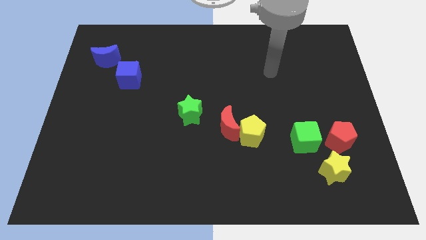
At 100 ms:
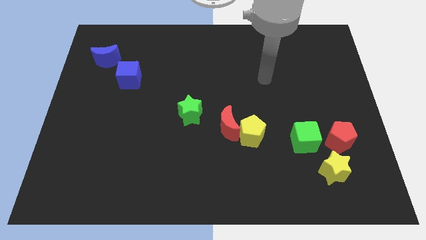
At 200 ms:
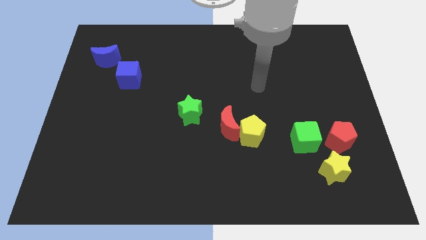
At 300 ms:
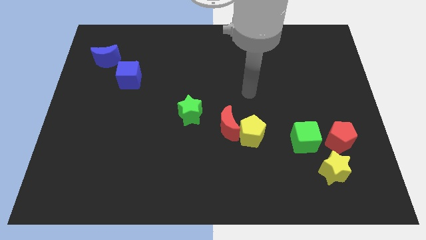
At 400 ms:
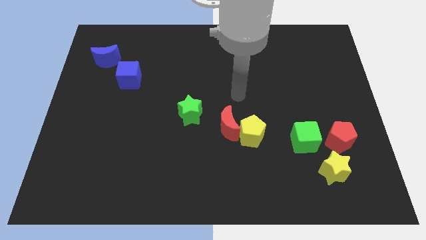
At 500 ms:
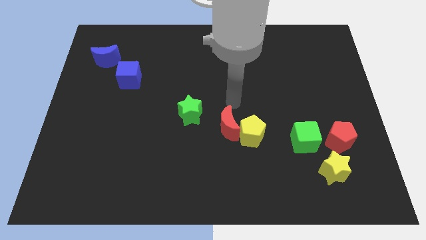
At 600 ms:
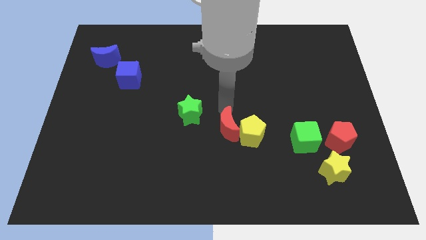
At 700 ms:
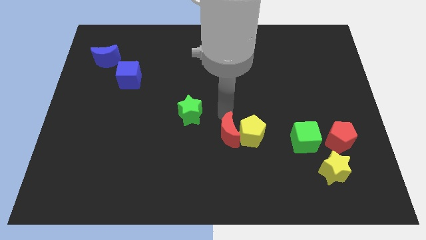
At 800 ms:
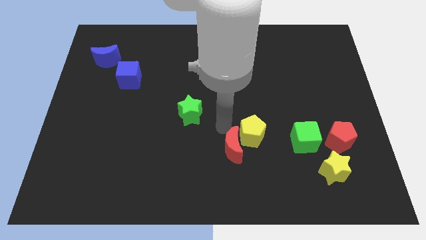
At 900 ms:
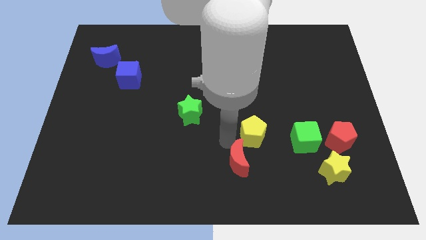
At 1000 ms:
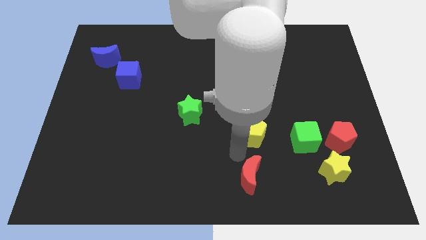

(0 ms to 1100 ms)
pull the yellow pentagon apart from the red moon

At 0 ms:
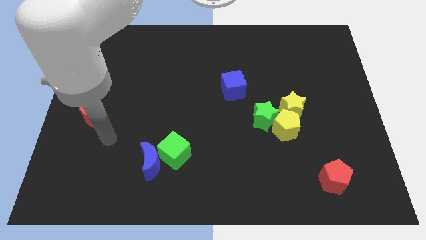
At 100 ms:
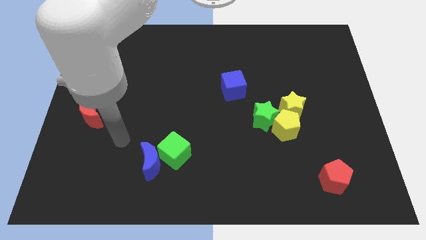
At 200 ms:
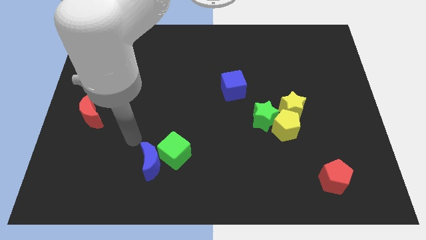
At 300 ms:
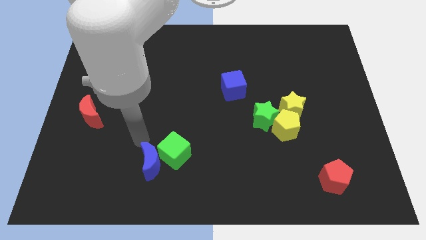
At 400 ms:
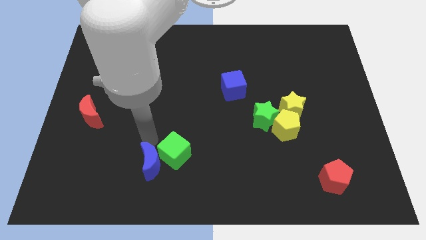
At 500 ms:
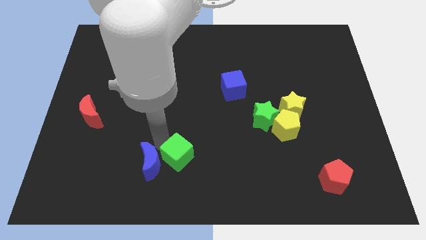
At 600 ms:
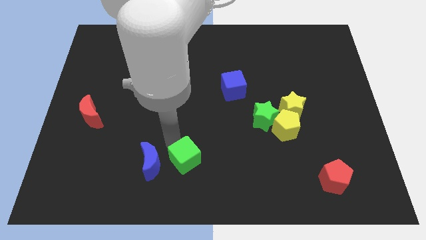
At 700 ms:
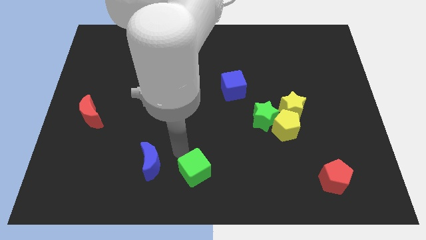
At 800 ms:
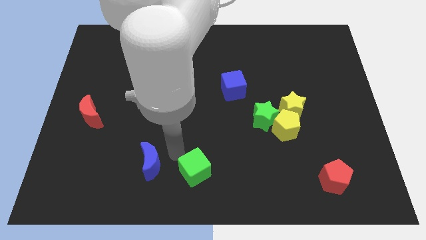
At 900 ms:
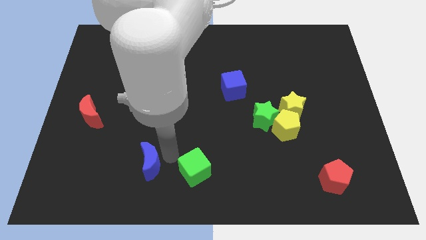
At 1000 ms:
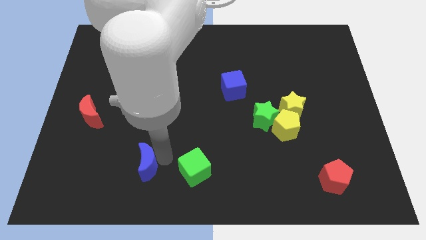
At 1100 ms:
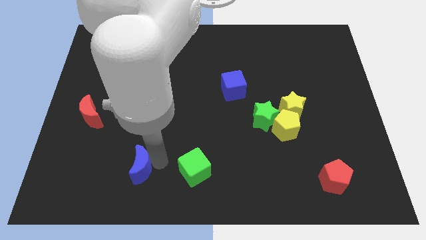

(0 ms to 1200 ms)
move the blue moon away from the green cube

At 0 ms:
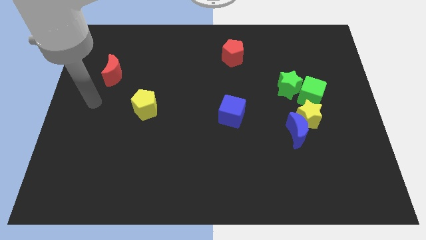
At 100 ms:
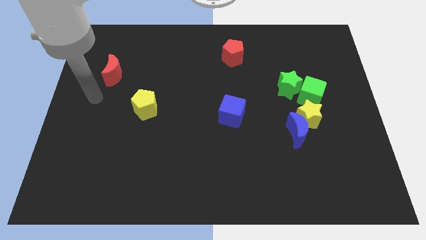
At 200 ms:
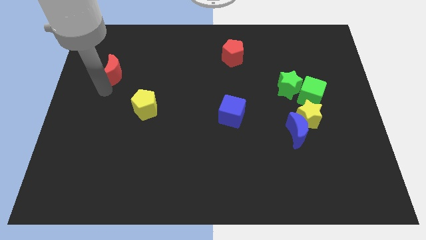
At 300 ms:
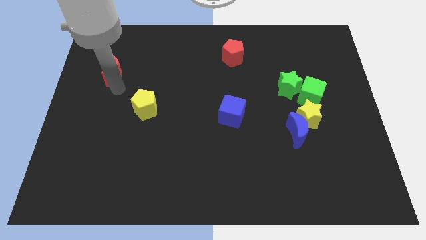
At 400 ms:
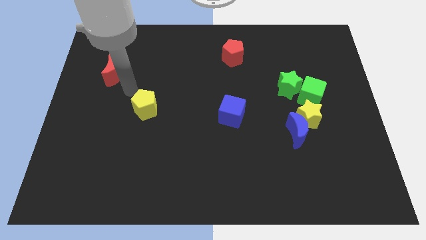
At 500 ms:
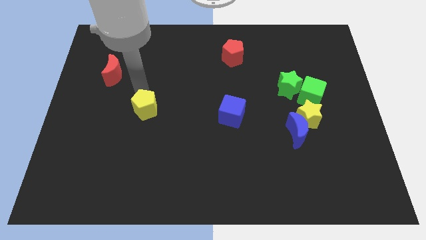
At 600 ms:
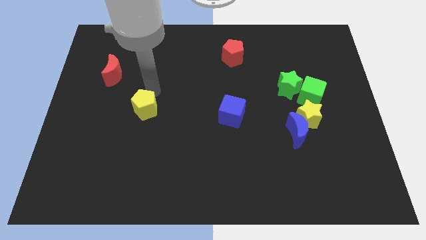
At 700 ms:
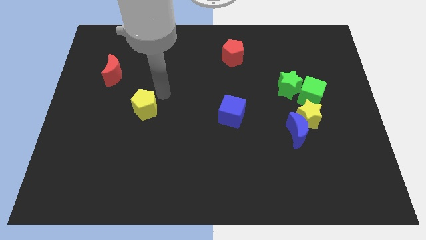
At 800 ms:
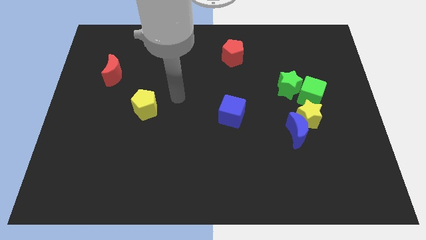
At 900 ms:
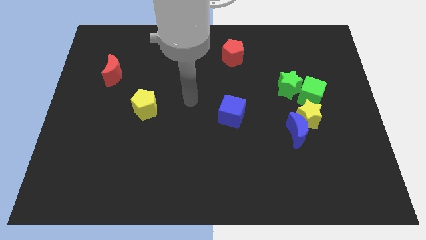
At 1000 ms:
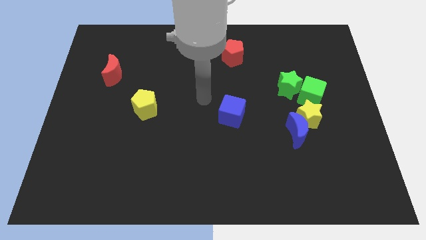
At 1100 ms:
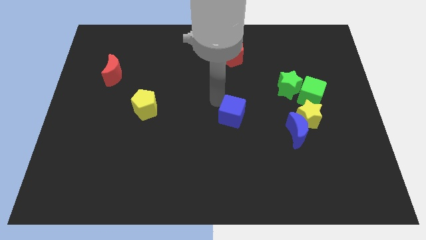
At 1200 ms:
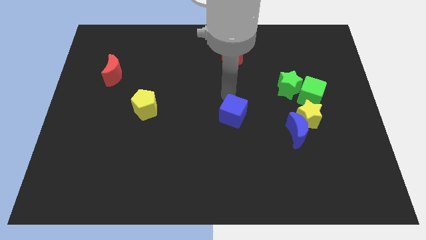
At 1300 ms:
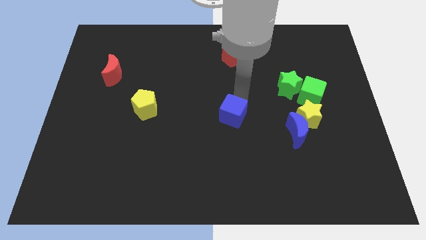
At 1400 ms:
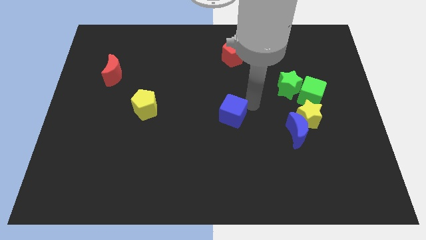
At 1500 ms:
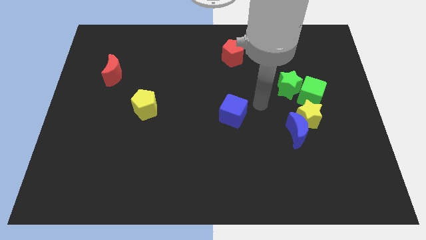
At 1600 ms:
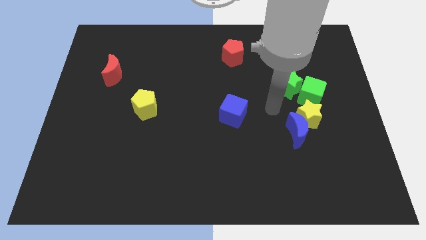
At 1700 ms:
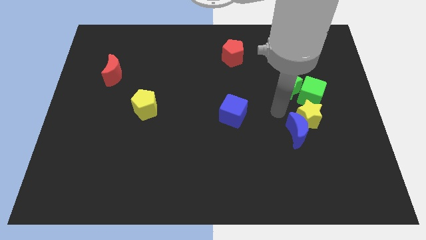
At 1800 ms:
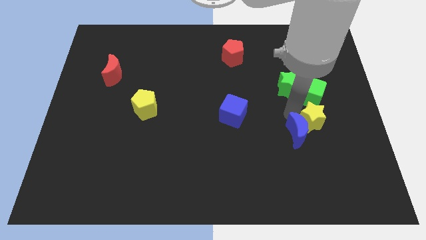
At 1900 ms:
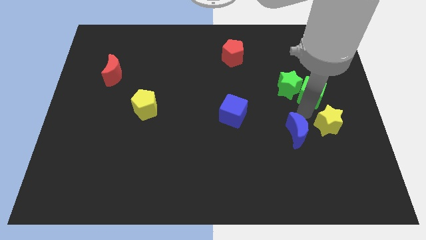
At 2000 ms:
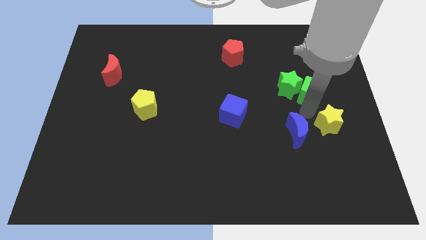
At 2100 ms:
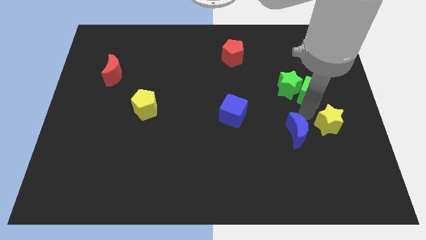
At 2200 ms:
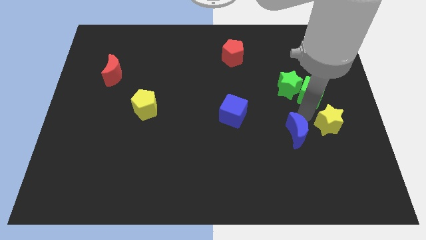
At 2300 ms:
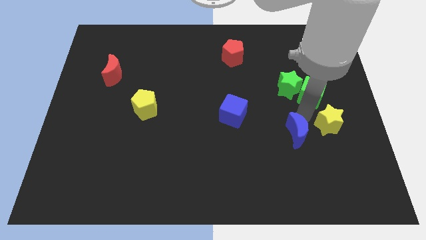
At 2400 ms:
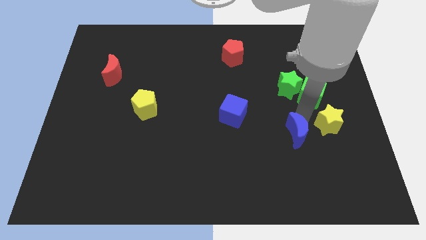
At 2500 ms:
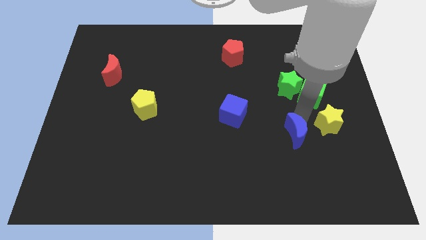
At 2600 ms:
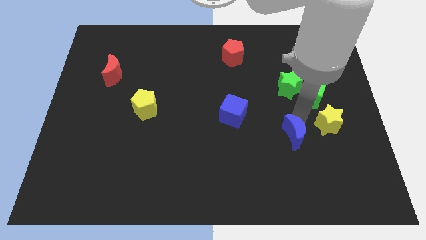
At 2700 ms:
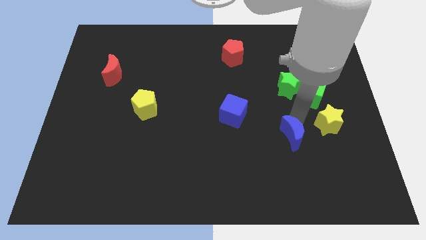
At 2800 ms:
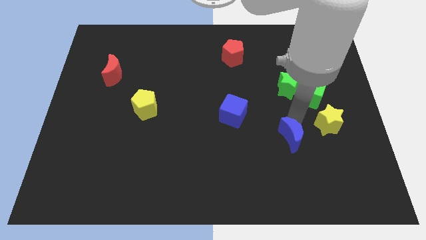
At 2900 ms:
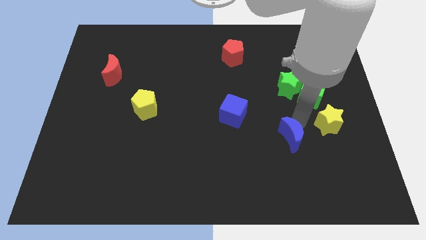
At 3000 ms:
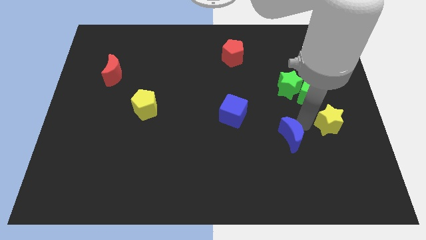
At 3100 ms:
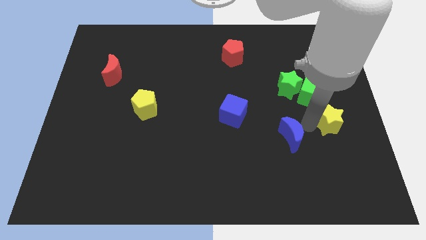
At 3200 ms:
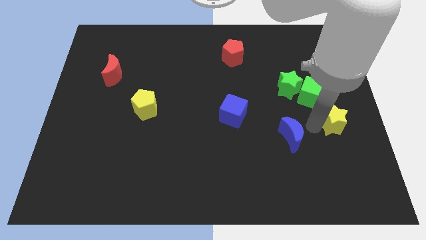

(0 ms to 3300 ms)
pull the blue moon apart from the yellow star

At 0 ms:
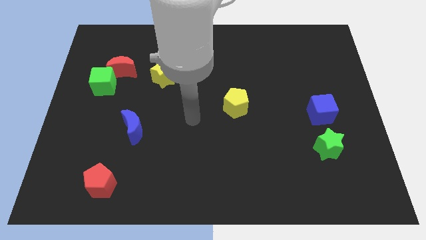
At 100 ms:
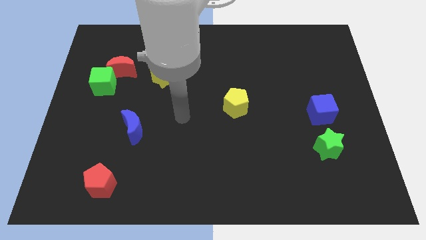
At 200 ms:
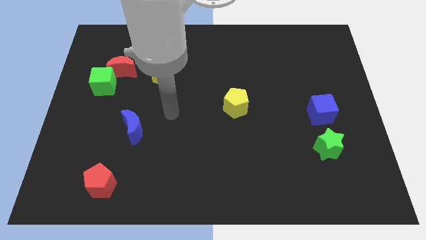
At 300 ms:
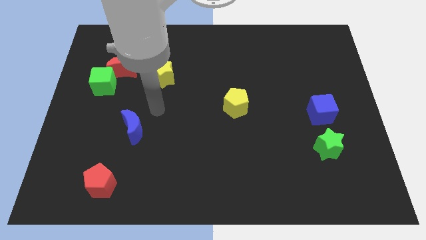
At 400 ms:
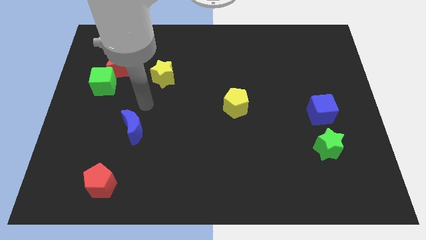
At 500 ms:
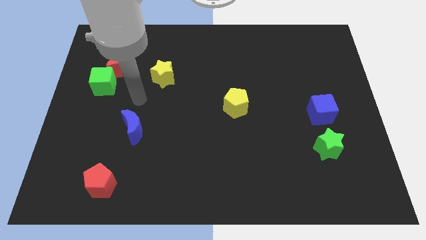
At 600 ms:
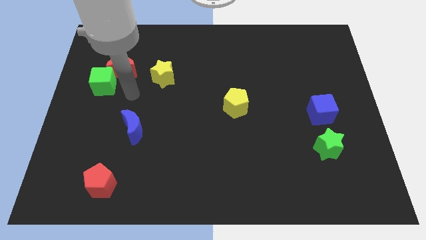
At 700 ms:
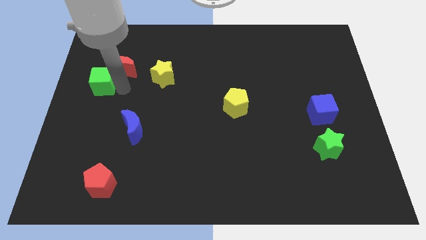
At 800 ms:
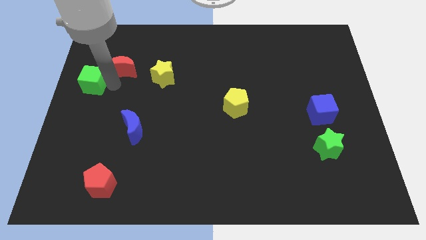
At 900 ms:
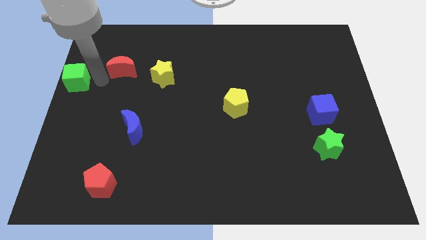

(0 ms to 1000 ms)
pull the red moon apart from the green cube

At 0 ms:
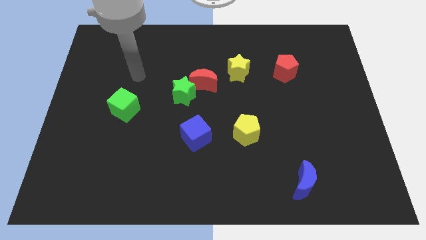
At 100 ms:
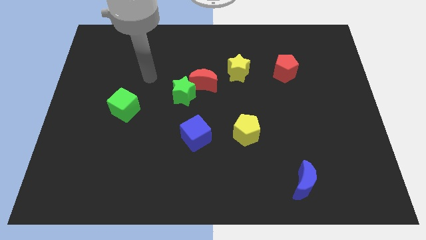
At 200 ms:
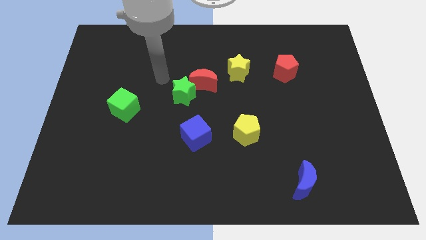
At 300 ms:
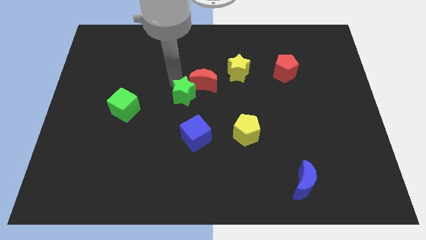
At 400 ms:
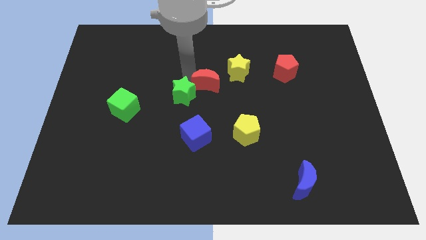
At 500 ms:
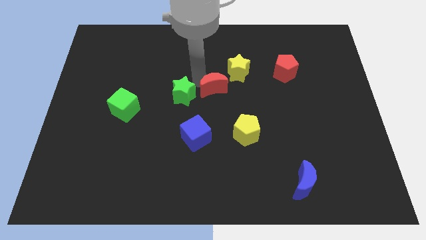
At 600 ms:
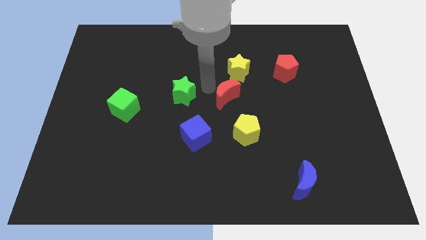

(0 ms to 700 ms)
separate the green star from the red moon

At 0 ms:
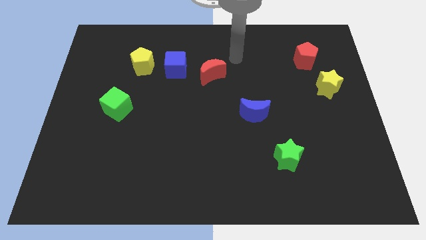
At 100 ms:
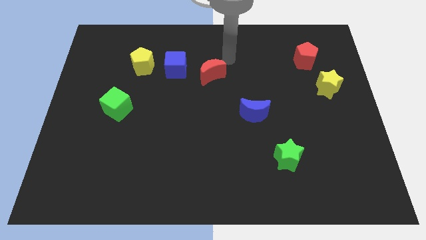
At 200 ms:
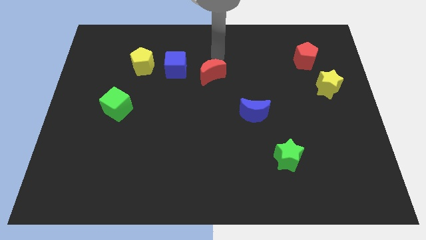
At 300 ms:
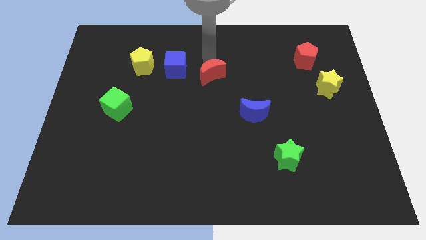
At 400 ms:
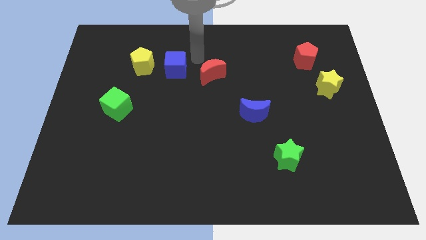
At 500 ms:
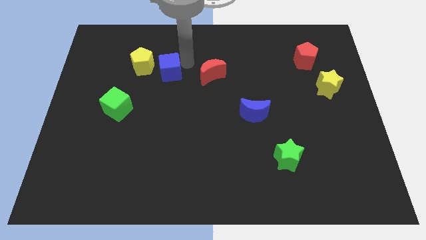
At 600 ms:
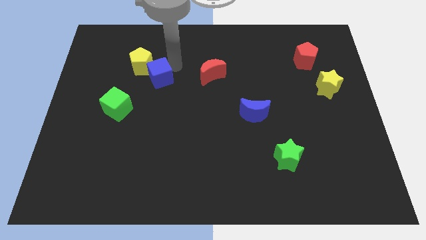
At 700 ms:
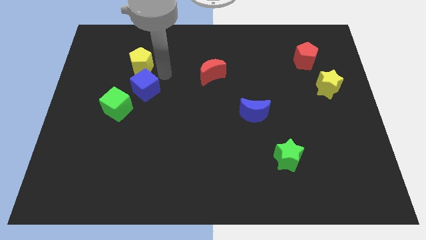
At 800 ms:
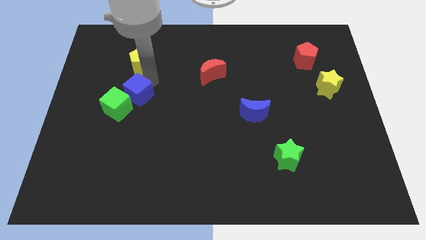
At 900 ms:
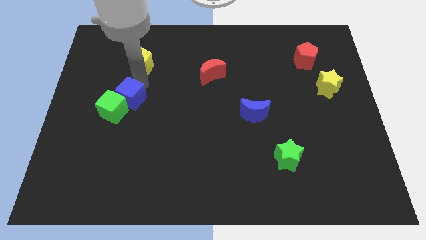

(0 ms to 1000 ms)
separate the yellow pentagon from the blue cube

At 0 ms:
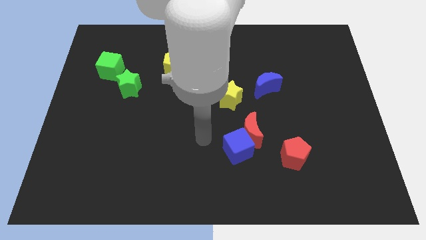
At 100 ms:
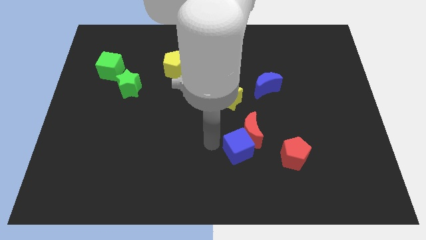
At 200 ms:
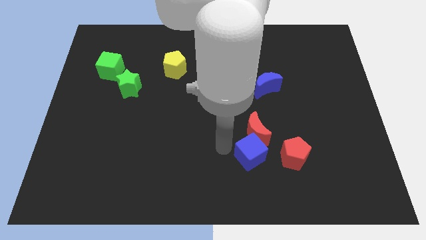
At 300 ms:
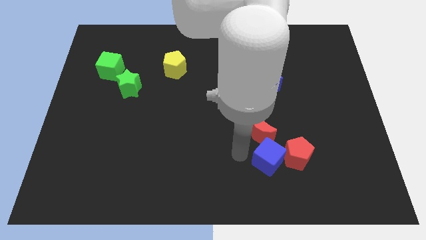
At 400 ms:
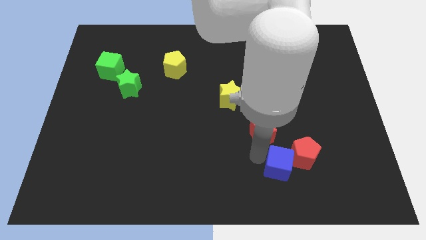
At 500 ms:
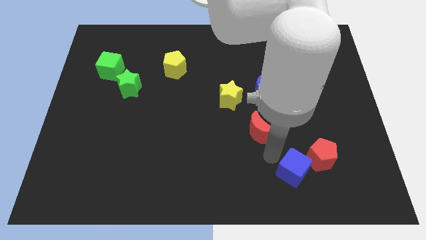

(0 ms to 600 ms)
move the red moon away from the blue cube

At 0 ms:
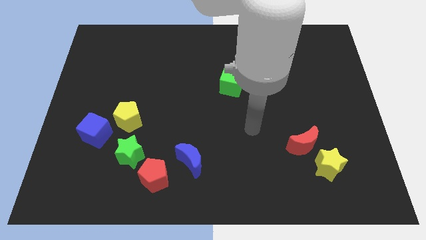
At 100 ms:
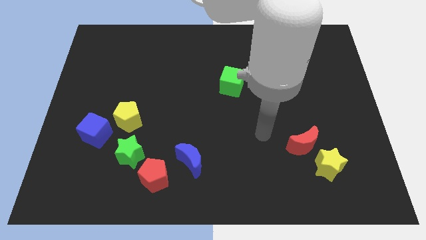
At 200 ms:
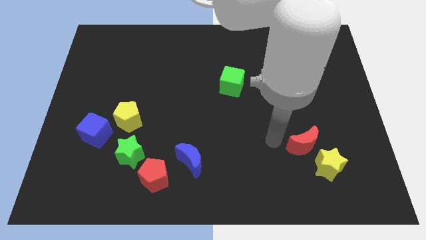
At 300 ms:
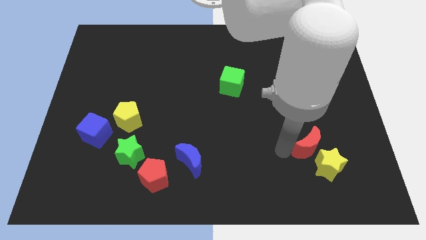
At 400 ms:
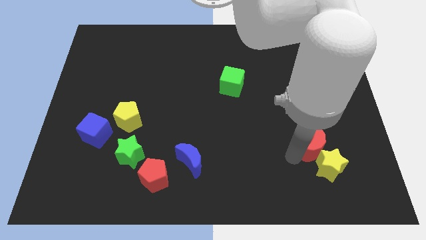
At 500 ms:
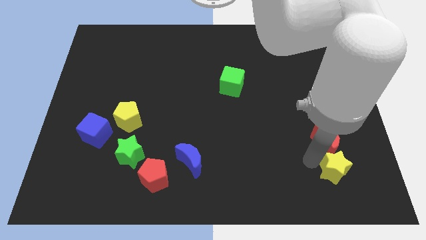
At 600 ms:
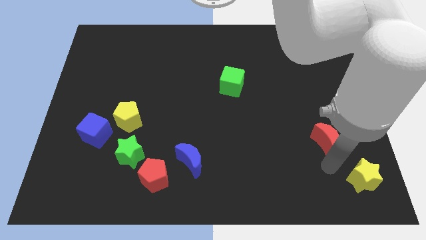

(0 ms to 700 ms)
separate the red moon from the yellow star
